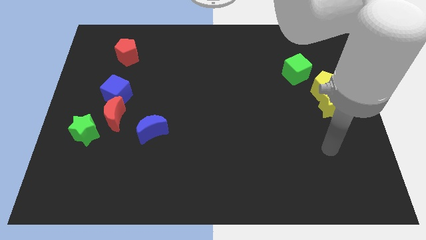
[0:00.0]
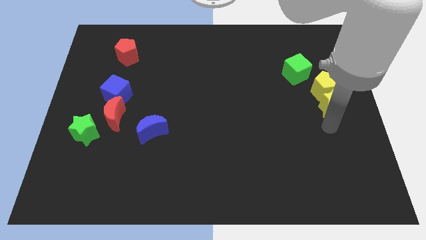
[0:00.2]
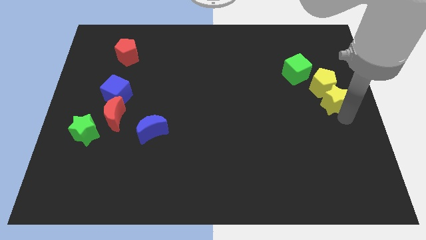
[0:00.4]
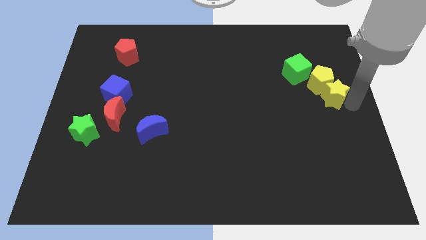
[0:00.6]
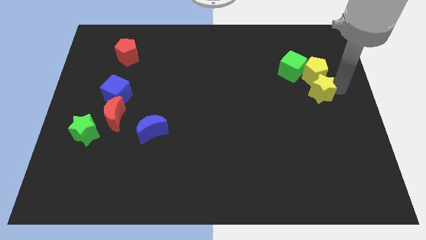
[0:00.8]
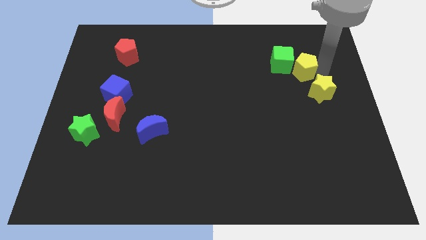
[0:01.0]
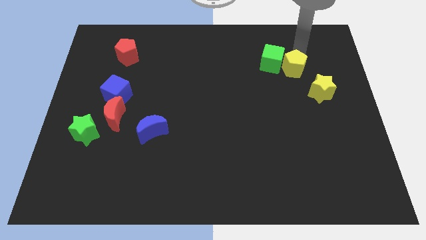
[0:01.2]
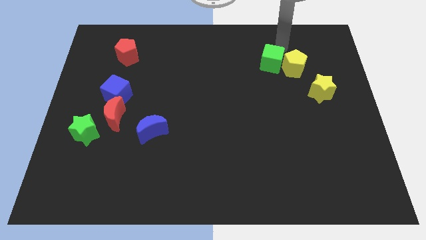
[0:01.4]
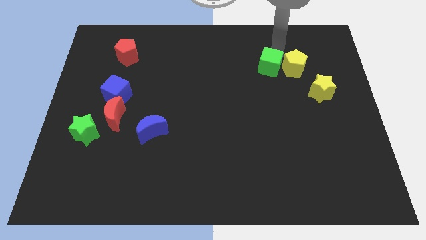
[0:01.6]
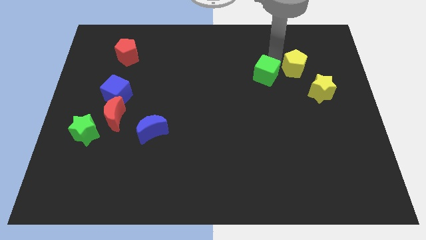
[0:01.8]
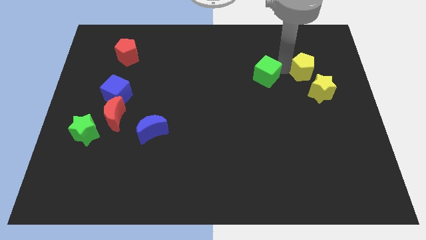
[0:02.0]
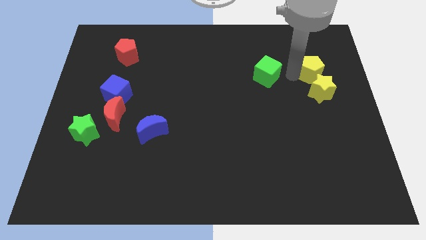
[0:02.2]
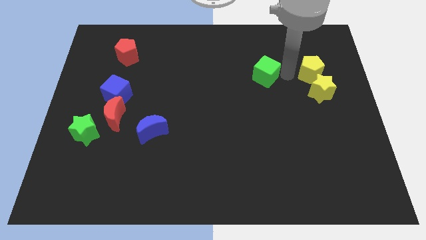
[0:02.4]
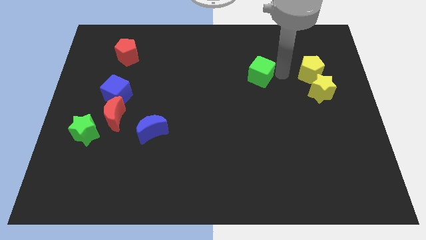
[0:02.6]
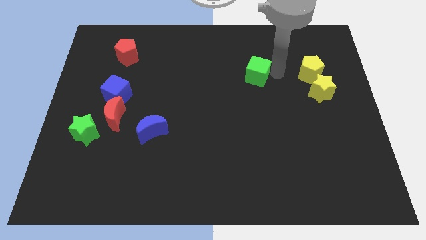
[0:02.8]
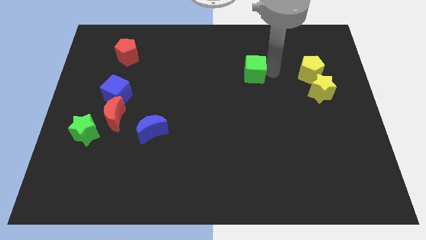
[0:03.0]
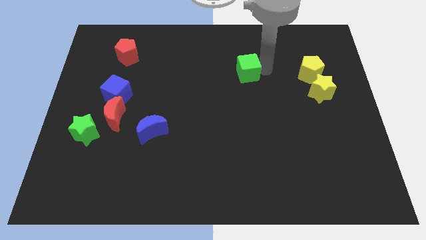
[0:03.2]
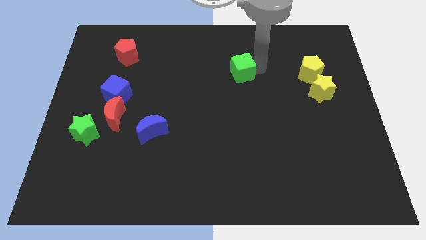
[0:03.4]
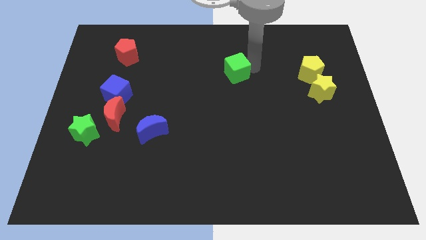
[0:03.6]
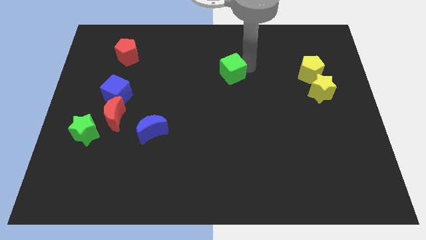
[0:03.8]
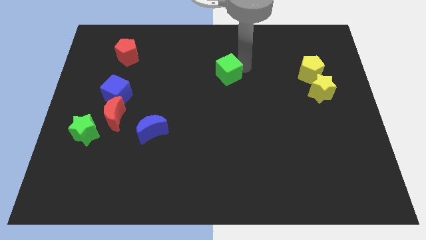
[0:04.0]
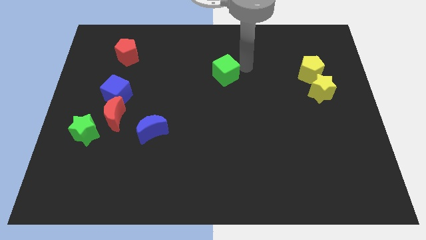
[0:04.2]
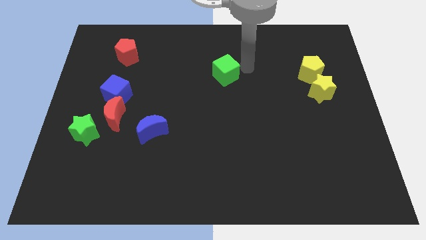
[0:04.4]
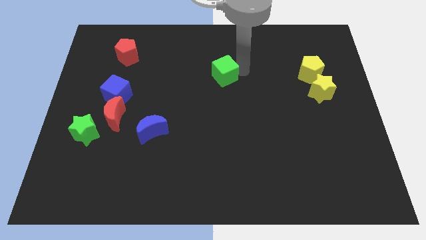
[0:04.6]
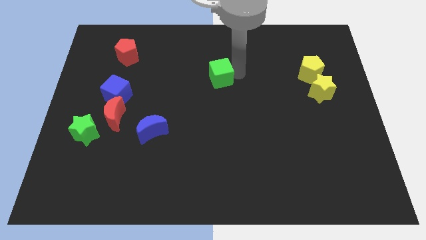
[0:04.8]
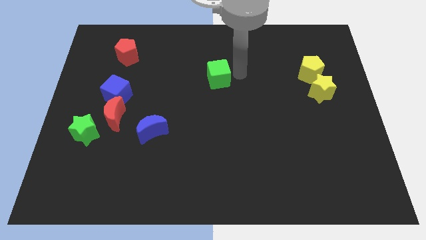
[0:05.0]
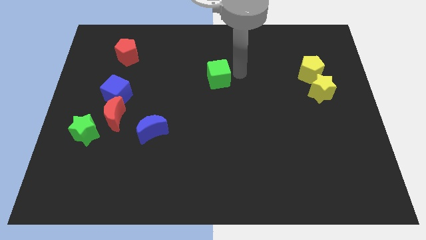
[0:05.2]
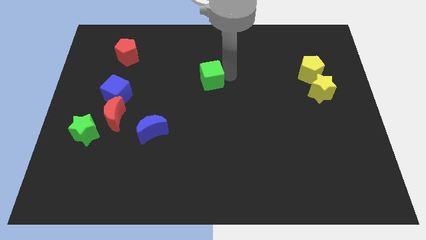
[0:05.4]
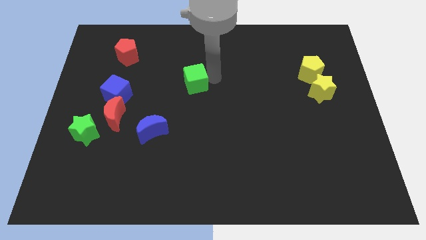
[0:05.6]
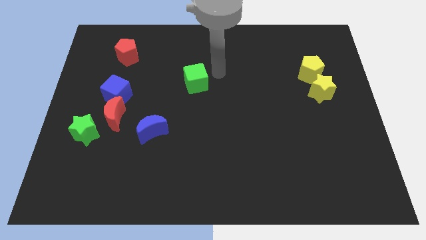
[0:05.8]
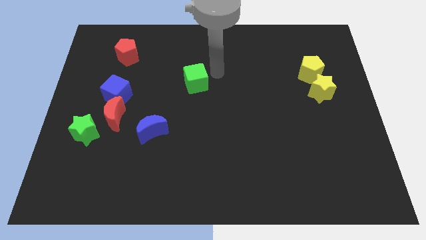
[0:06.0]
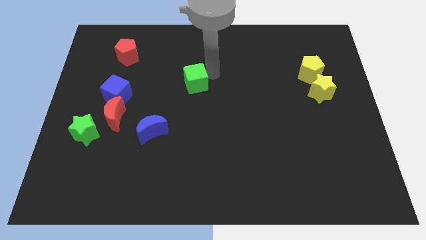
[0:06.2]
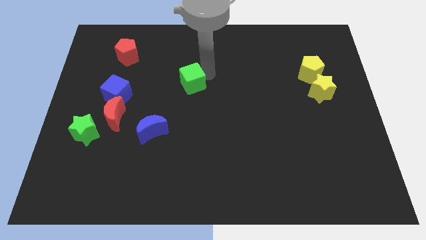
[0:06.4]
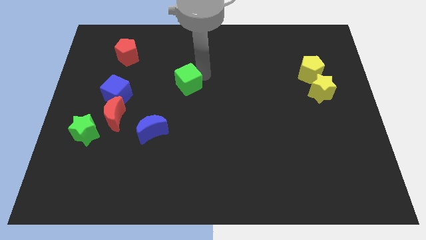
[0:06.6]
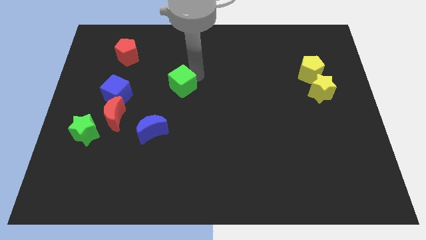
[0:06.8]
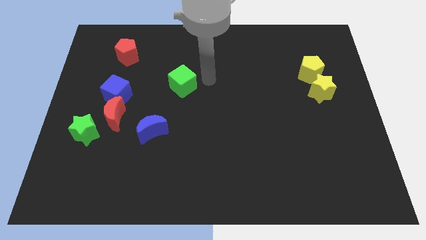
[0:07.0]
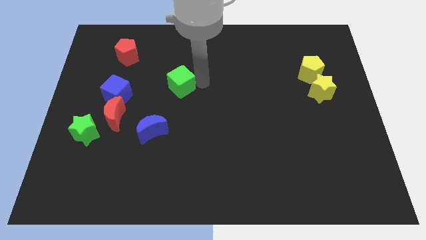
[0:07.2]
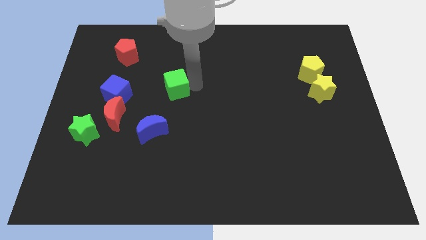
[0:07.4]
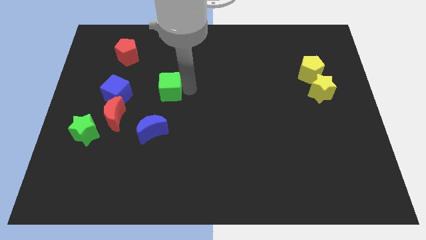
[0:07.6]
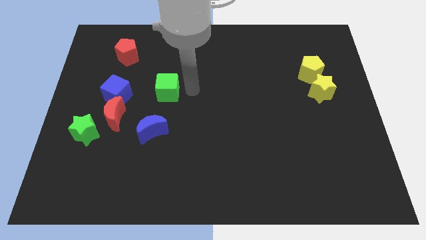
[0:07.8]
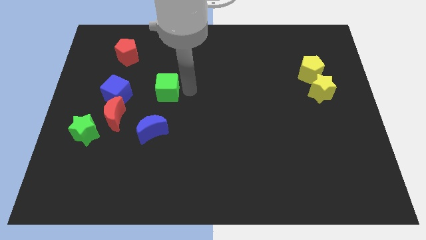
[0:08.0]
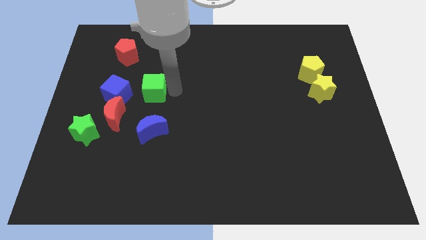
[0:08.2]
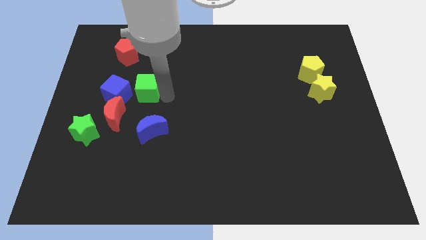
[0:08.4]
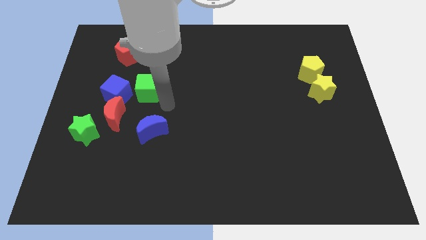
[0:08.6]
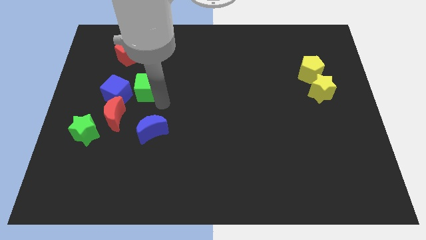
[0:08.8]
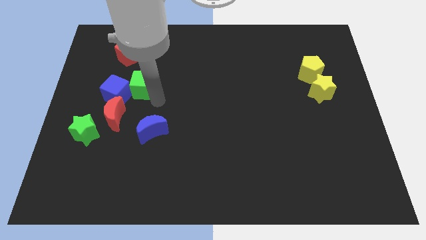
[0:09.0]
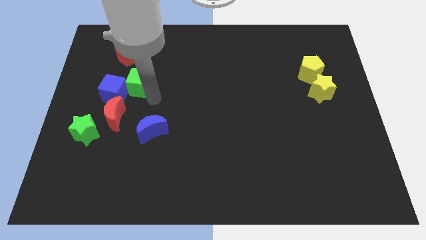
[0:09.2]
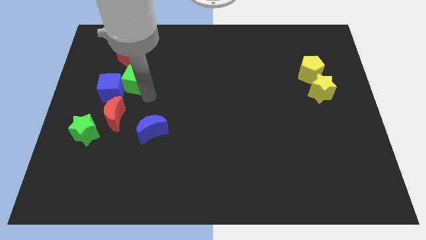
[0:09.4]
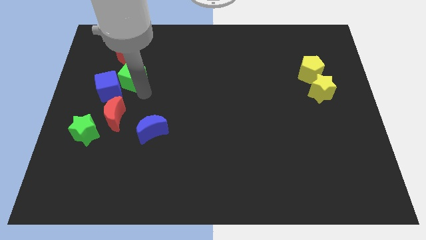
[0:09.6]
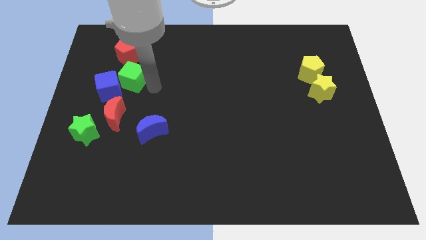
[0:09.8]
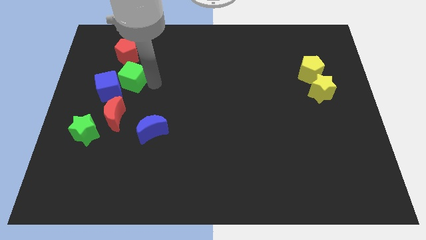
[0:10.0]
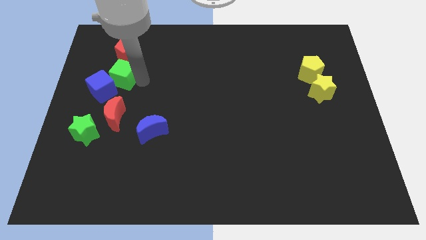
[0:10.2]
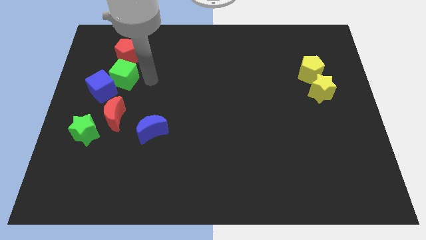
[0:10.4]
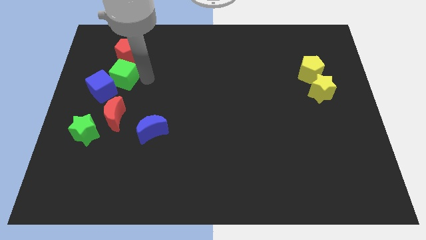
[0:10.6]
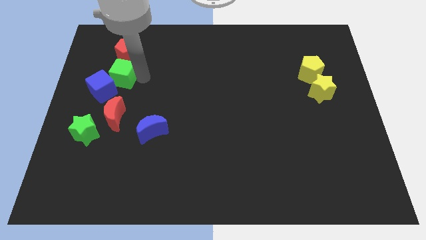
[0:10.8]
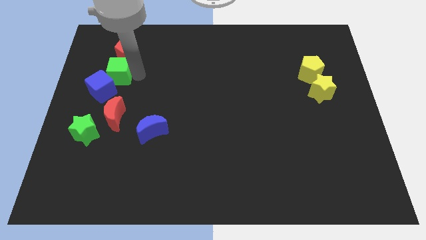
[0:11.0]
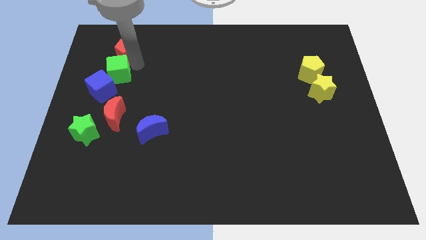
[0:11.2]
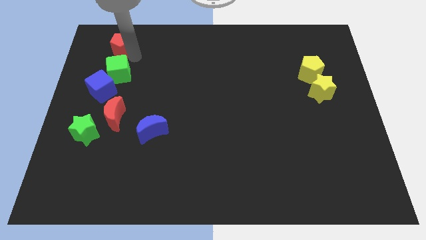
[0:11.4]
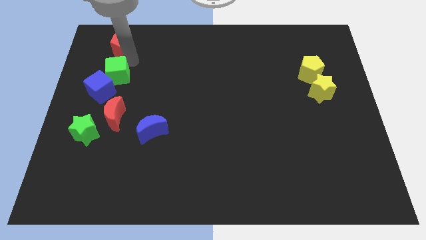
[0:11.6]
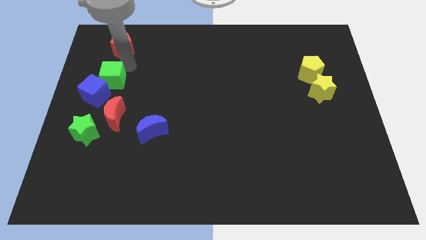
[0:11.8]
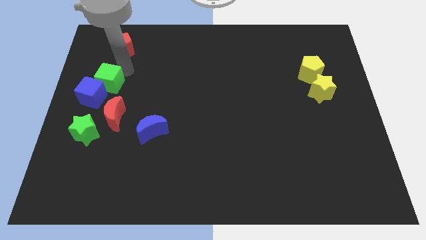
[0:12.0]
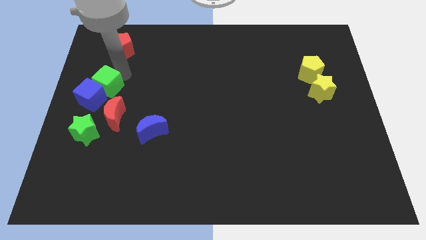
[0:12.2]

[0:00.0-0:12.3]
push the green cube diagonally up and to the left of the red moon
